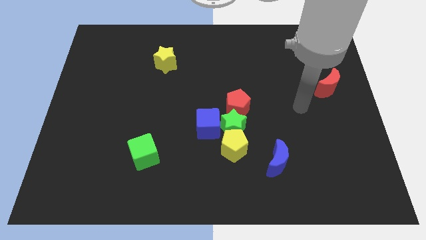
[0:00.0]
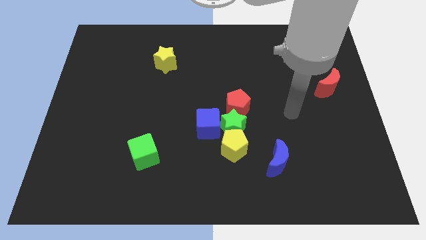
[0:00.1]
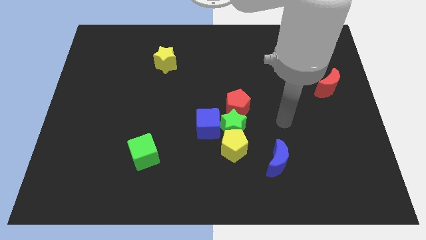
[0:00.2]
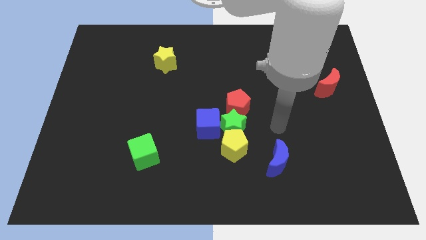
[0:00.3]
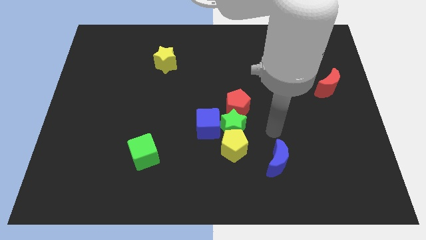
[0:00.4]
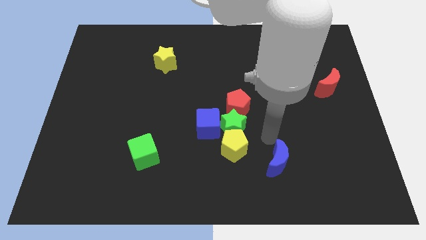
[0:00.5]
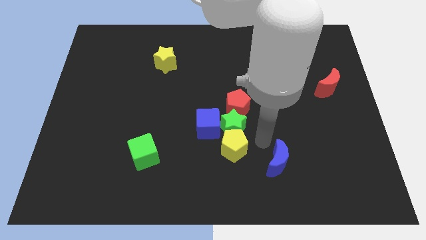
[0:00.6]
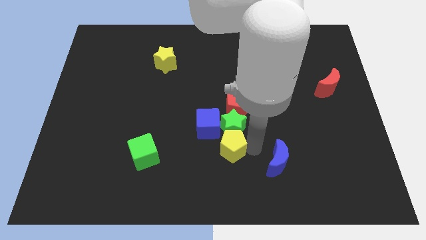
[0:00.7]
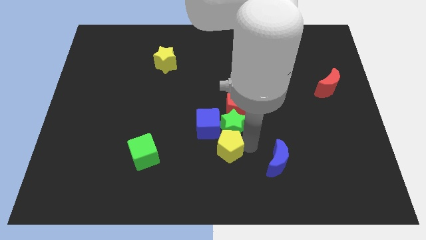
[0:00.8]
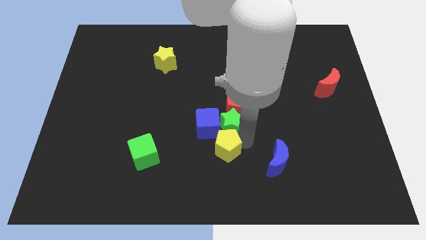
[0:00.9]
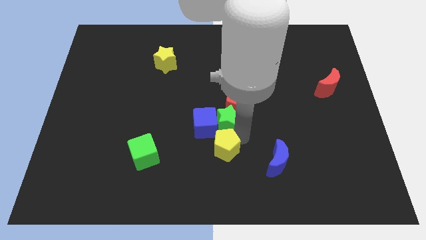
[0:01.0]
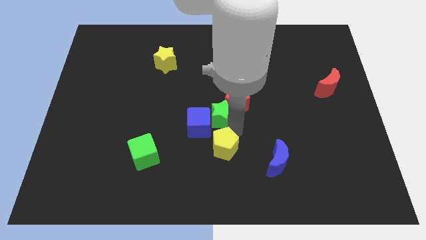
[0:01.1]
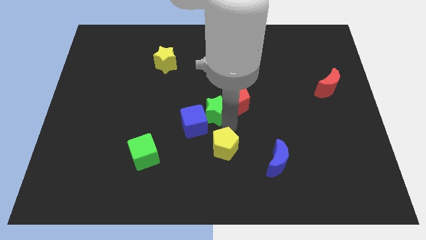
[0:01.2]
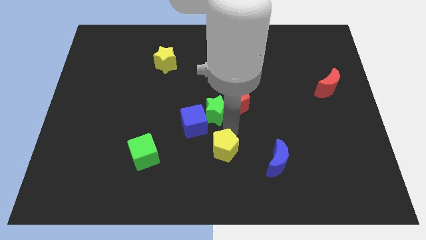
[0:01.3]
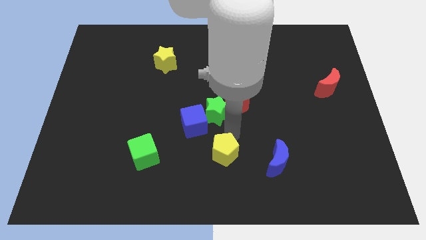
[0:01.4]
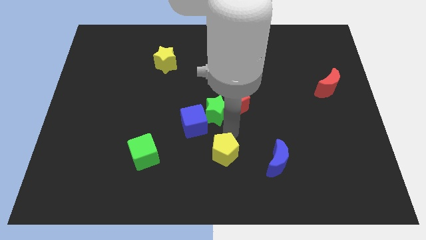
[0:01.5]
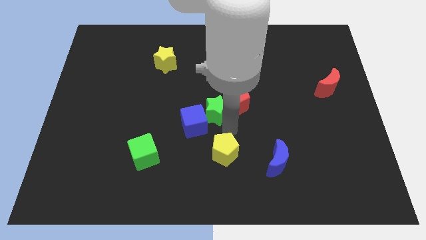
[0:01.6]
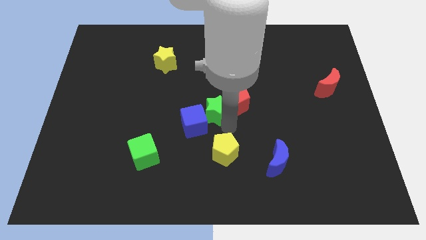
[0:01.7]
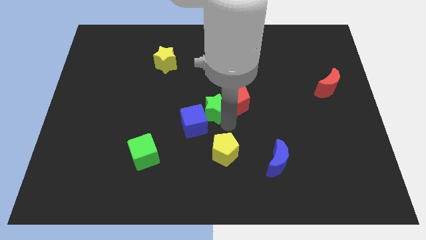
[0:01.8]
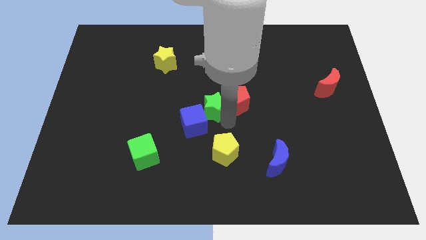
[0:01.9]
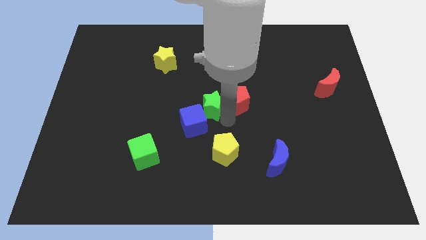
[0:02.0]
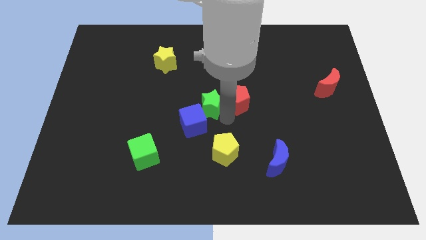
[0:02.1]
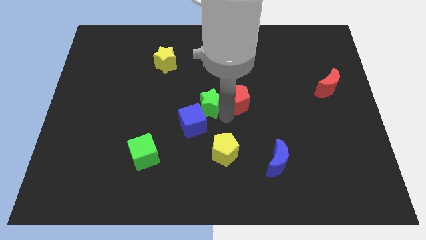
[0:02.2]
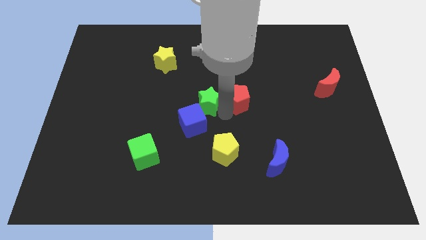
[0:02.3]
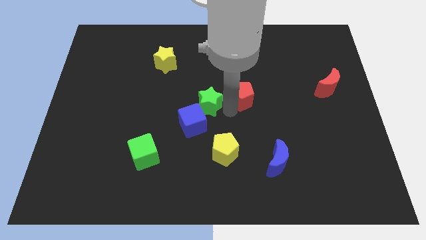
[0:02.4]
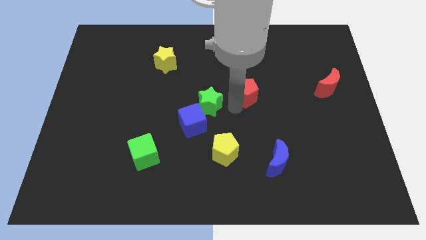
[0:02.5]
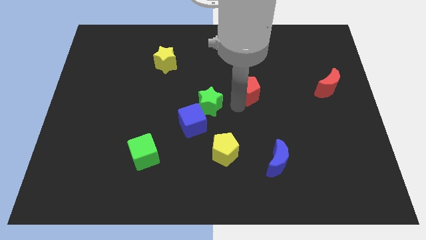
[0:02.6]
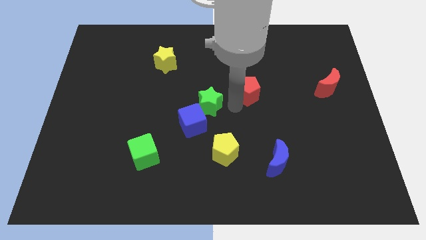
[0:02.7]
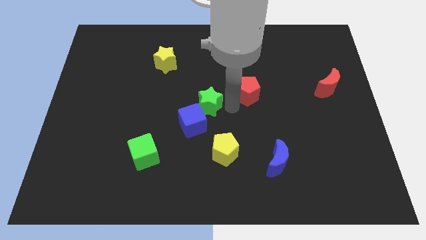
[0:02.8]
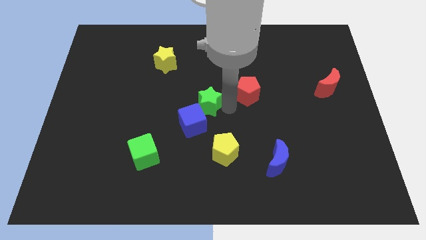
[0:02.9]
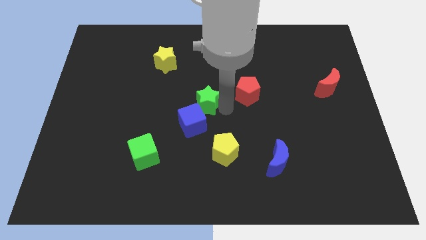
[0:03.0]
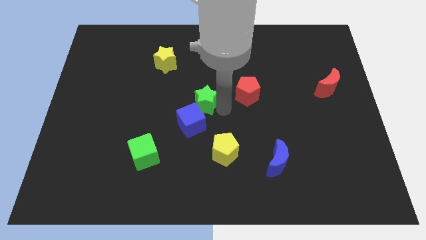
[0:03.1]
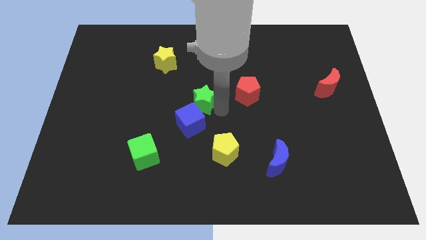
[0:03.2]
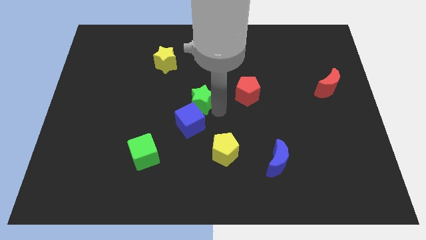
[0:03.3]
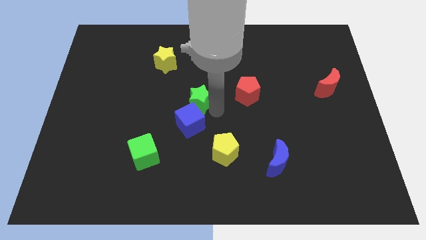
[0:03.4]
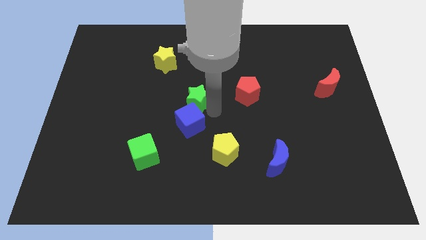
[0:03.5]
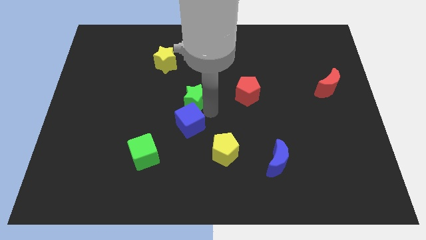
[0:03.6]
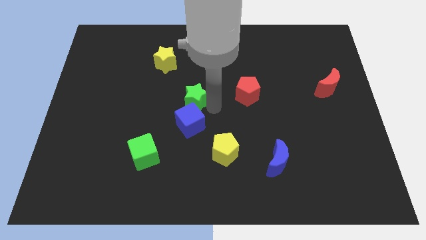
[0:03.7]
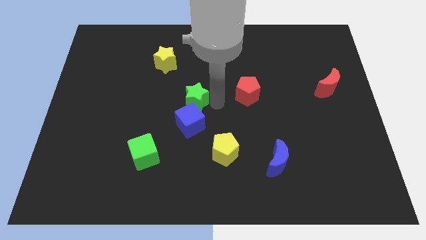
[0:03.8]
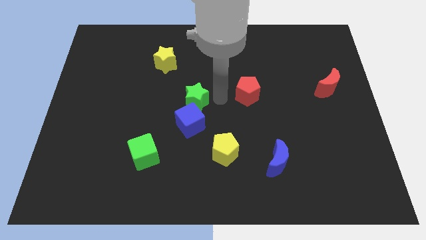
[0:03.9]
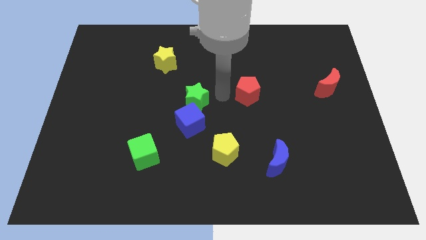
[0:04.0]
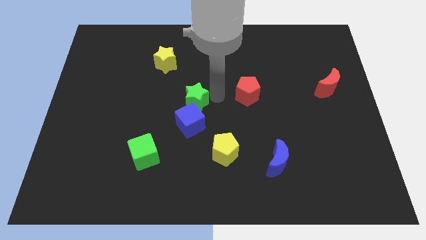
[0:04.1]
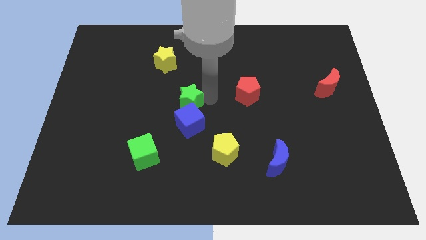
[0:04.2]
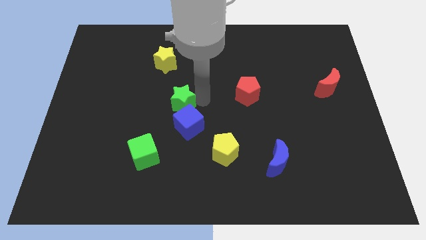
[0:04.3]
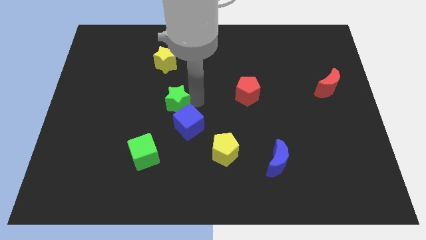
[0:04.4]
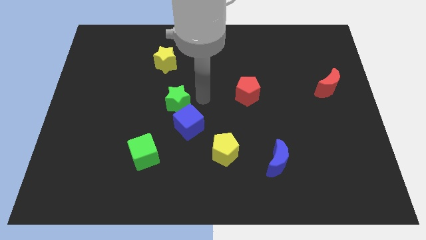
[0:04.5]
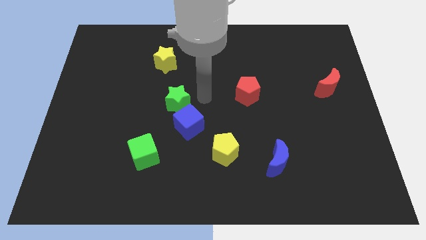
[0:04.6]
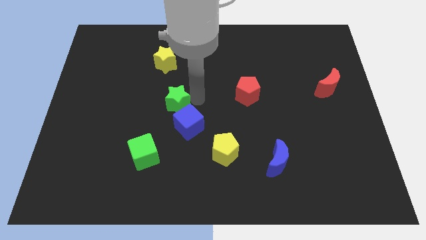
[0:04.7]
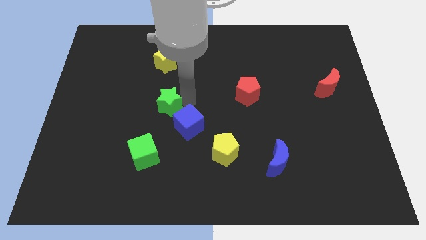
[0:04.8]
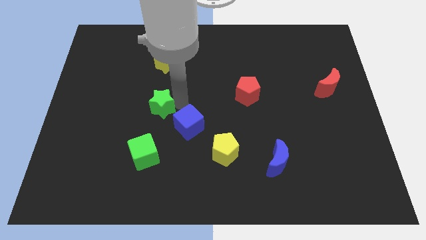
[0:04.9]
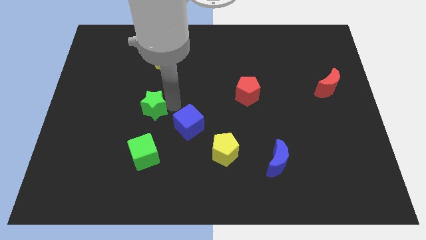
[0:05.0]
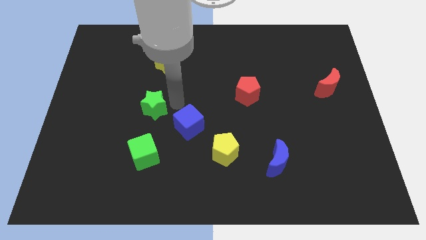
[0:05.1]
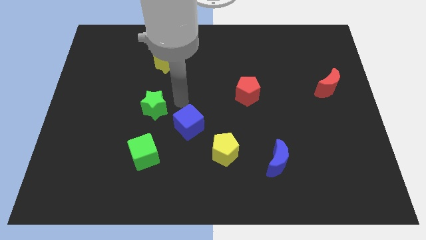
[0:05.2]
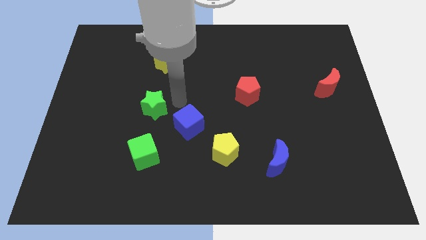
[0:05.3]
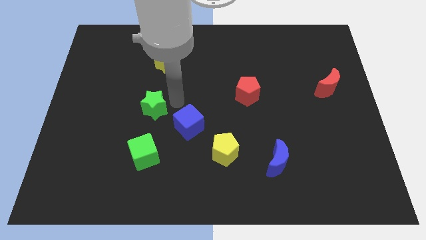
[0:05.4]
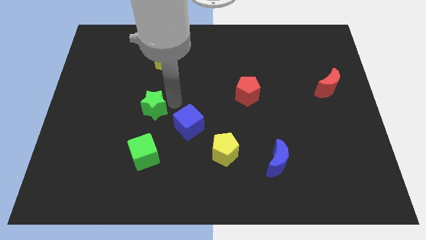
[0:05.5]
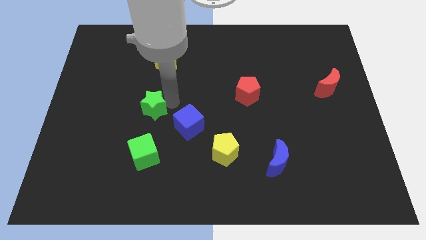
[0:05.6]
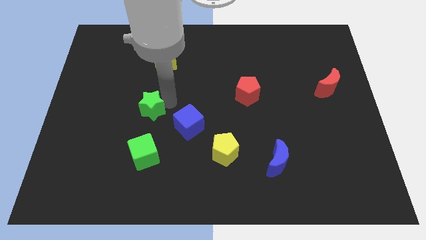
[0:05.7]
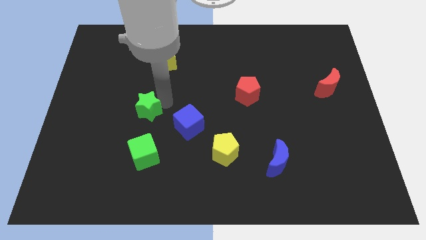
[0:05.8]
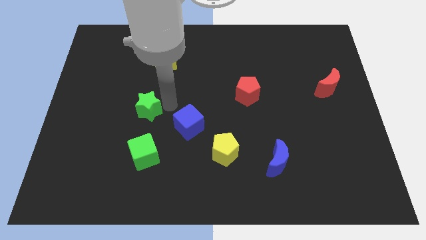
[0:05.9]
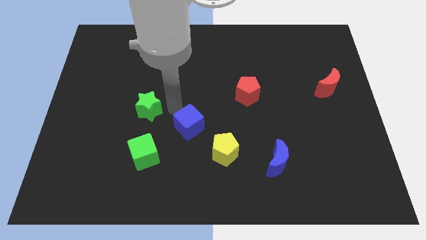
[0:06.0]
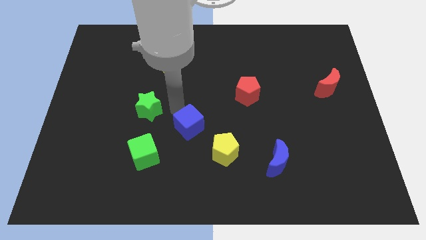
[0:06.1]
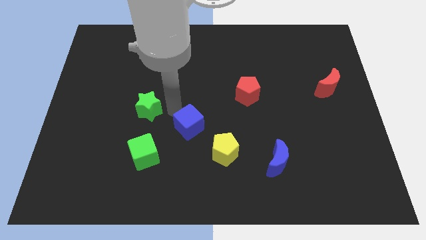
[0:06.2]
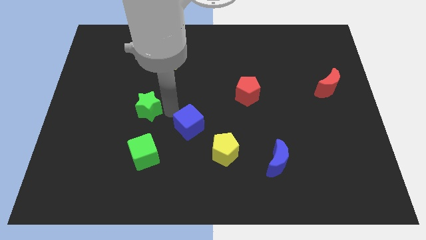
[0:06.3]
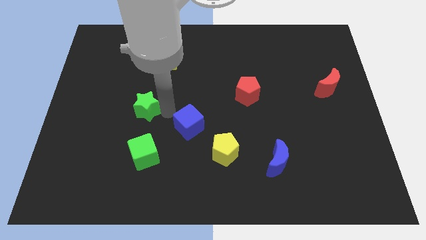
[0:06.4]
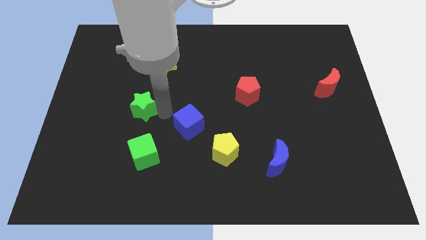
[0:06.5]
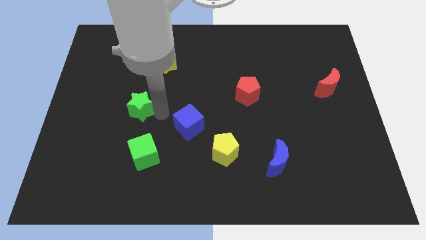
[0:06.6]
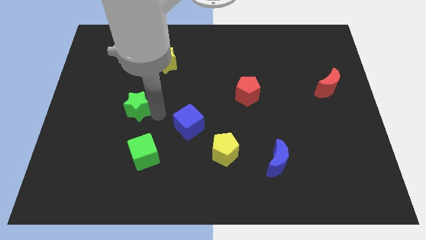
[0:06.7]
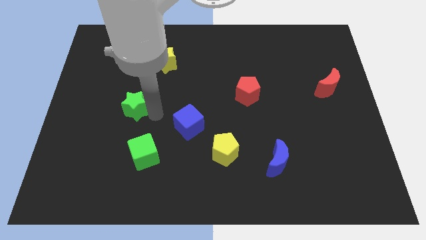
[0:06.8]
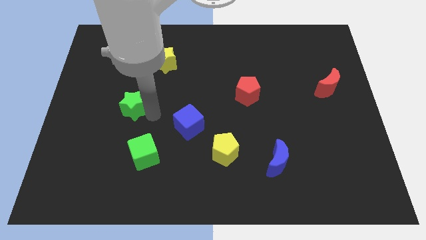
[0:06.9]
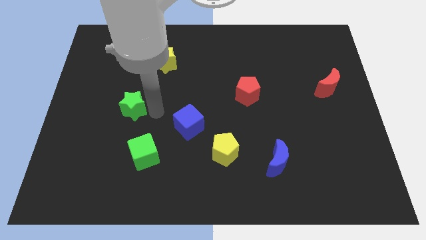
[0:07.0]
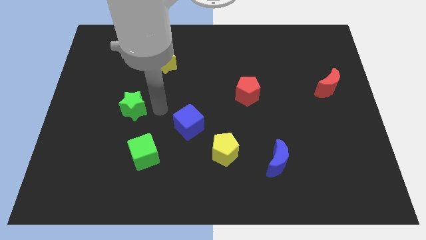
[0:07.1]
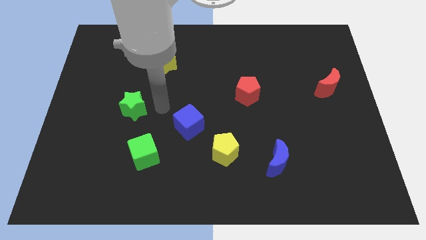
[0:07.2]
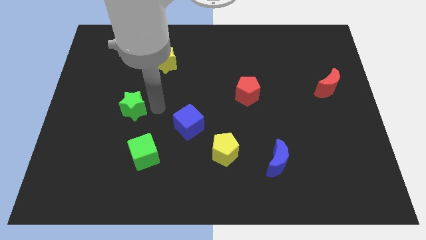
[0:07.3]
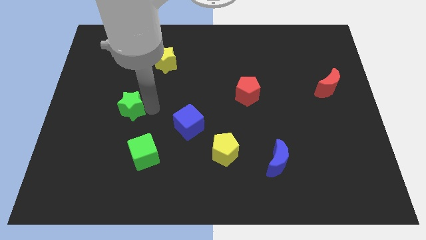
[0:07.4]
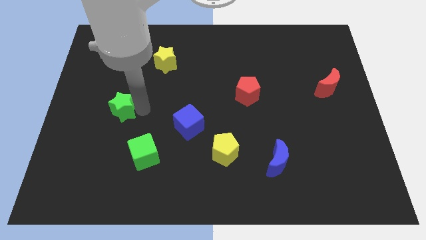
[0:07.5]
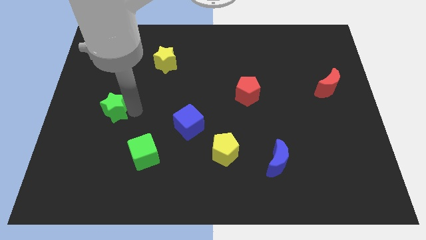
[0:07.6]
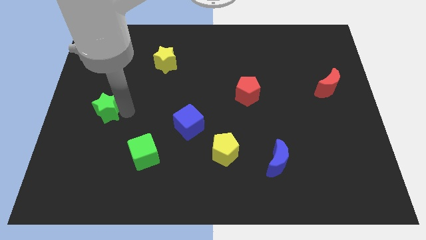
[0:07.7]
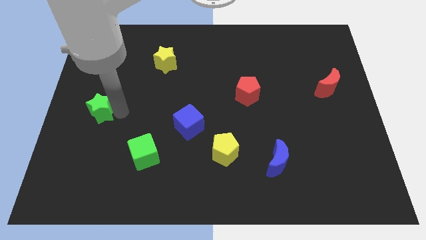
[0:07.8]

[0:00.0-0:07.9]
push the green star to the left side
